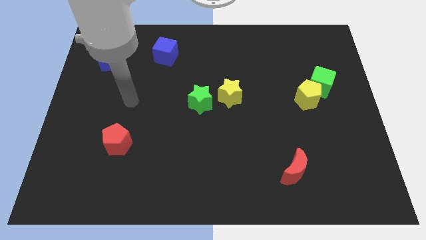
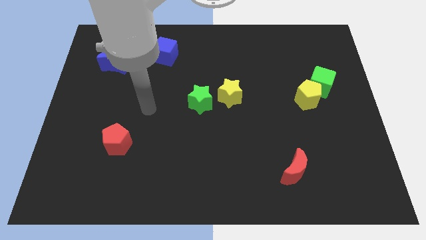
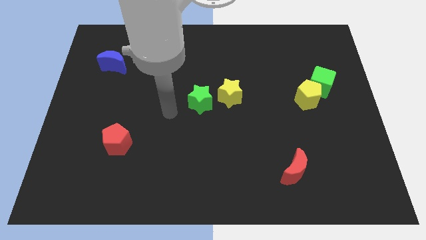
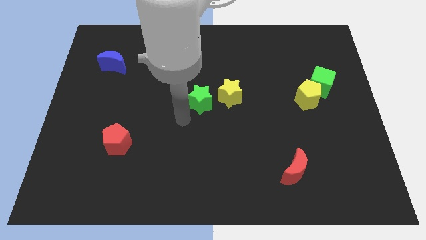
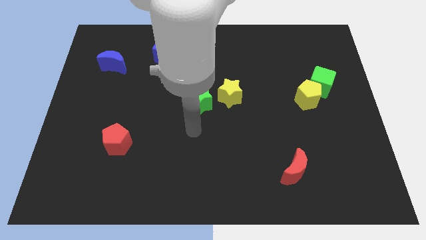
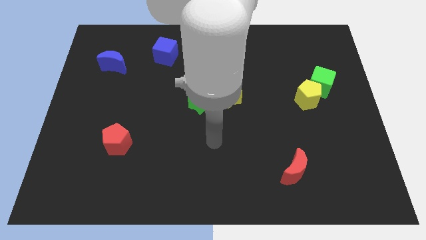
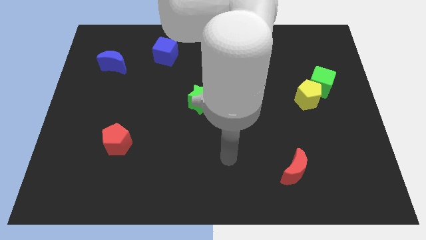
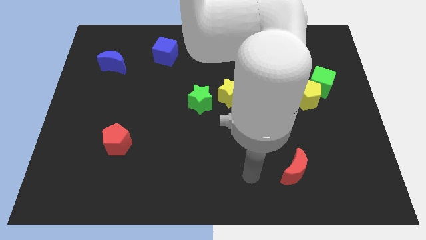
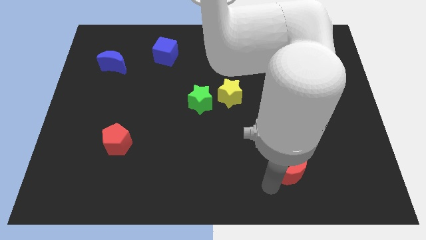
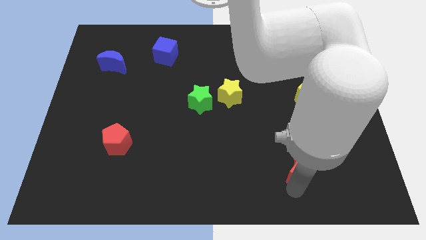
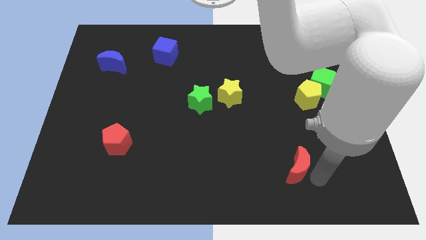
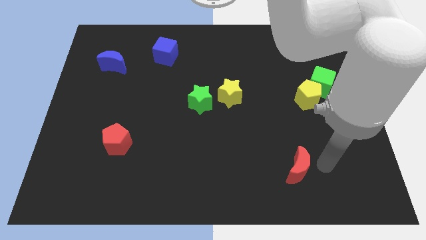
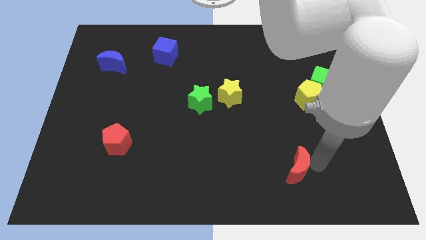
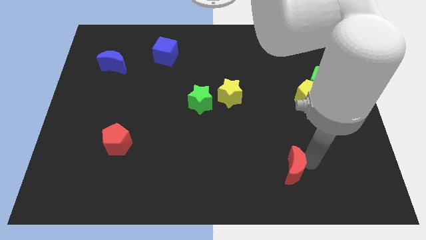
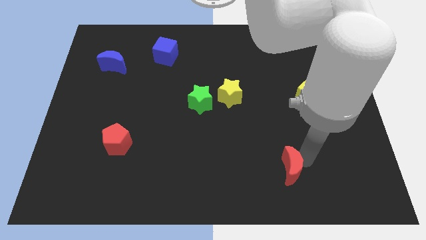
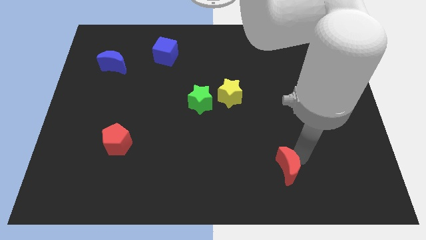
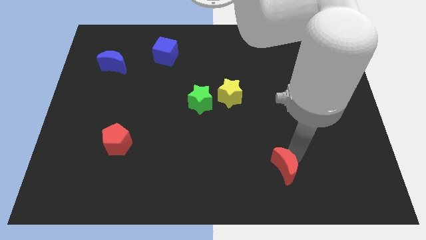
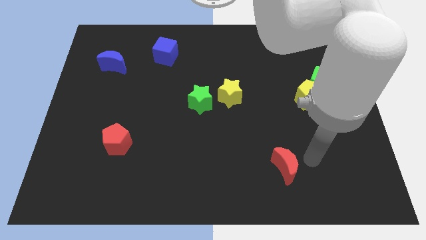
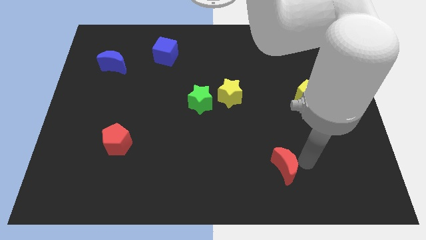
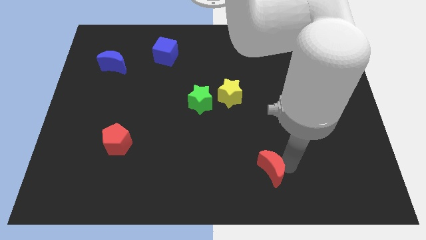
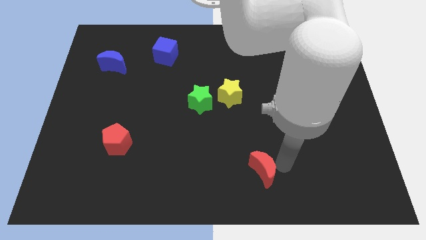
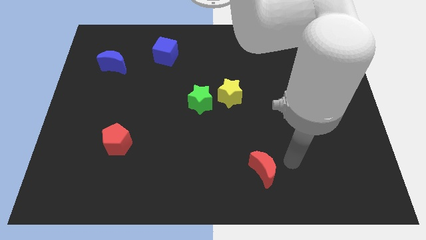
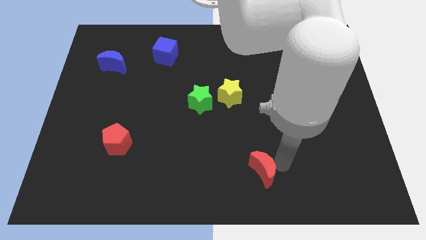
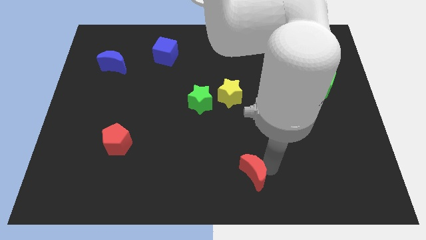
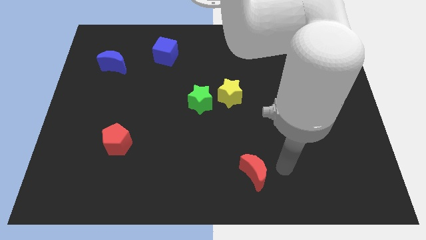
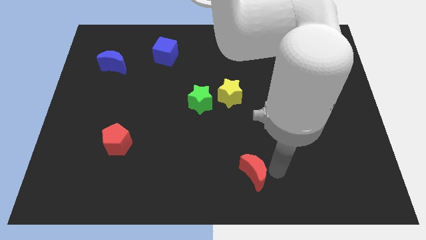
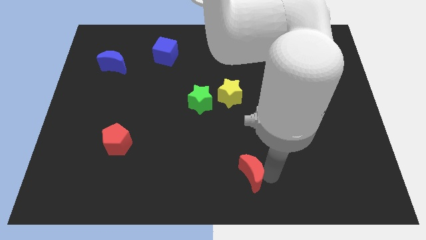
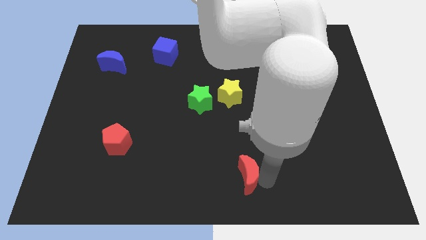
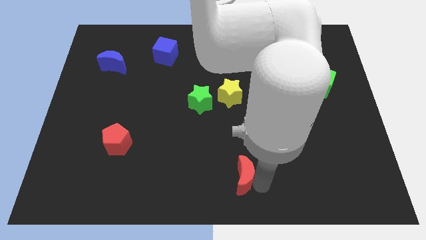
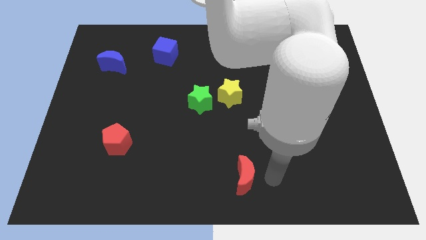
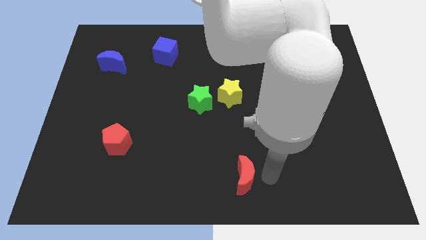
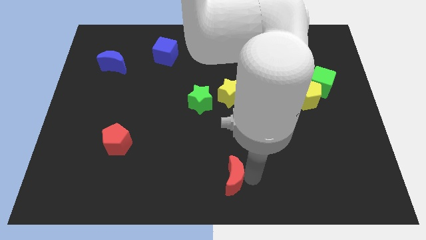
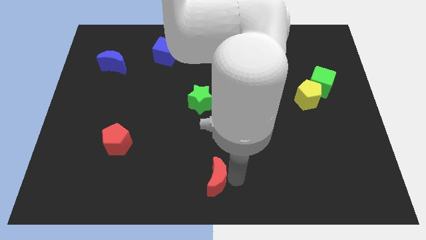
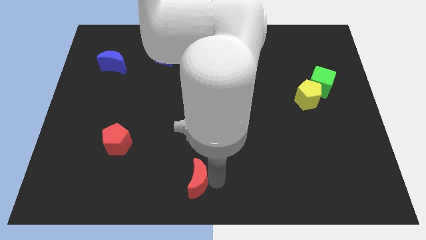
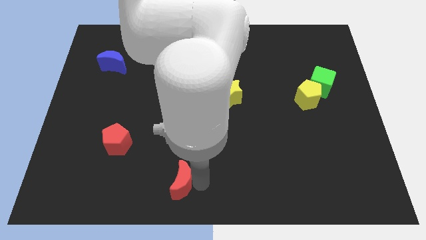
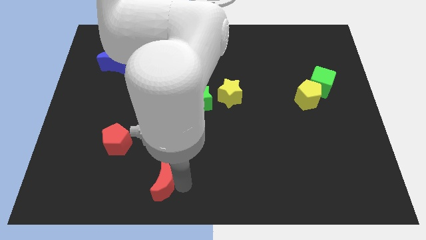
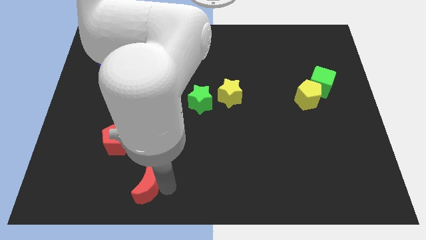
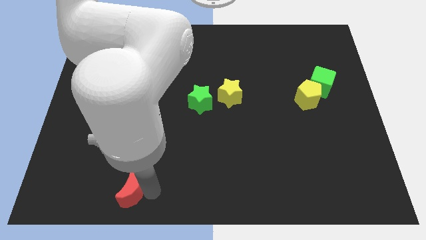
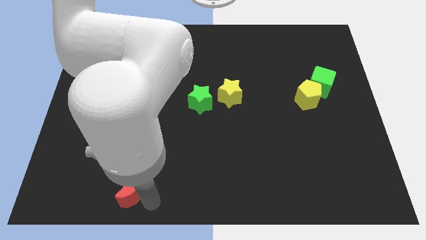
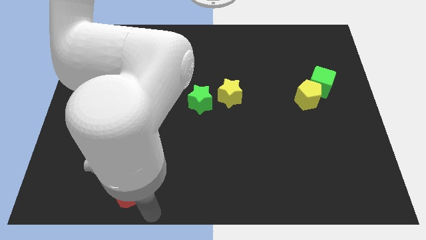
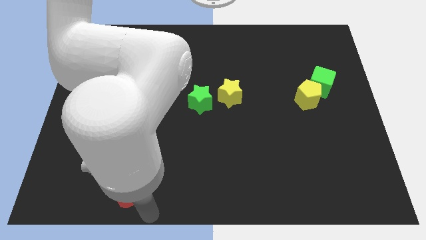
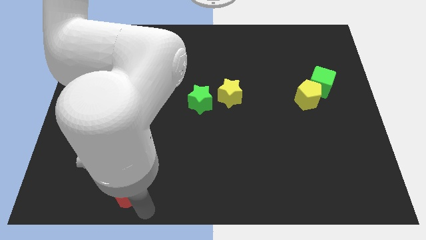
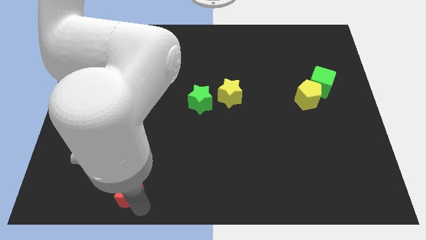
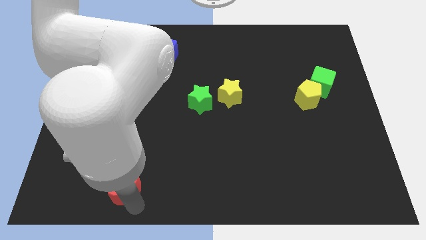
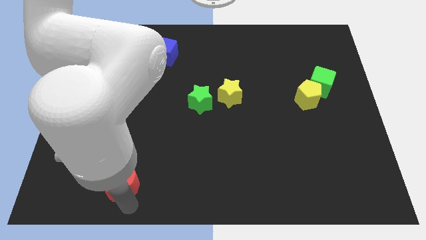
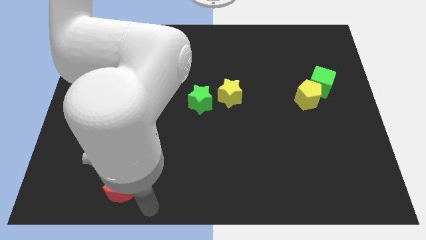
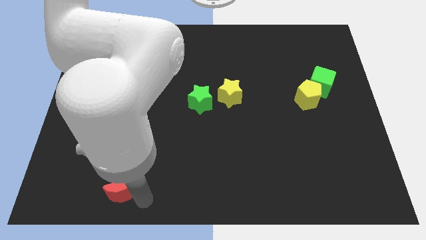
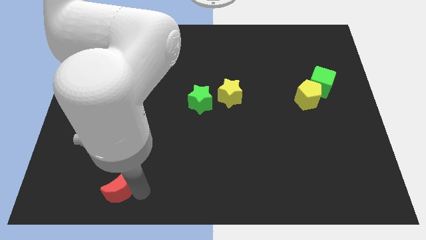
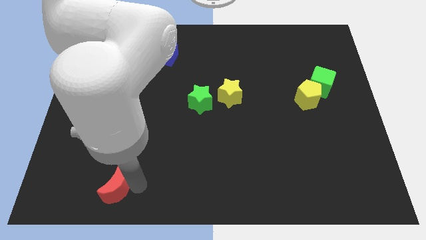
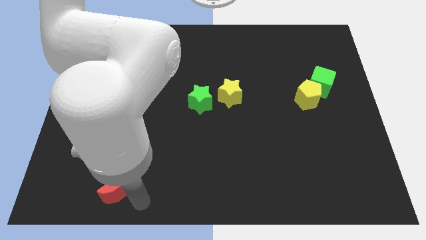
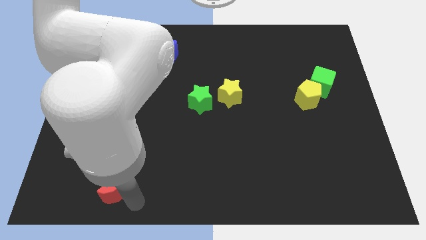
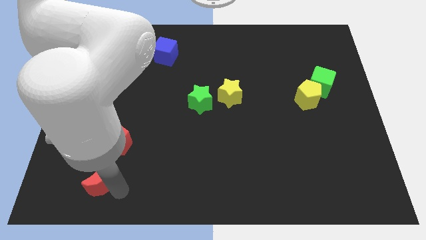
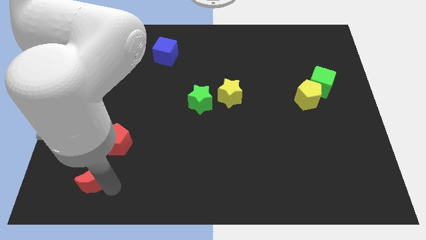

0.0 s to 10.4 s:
put the red moon to the bottom left of the red pentagon

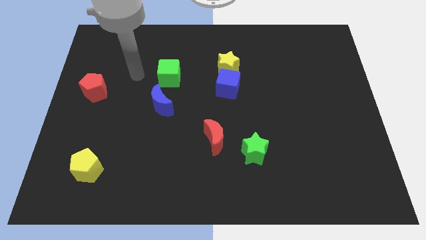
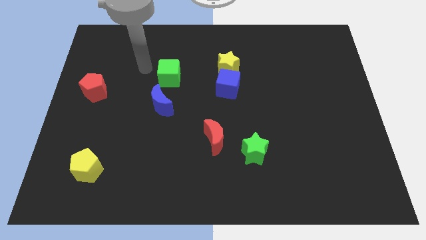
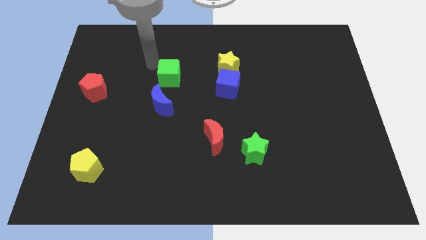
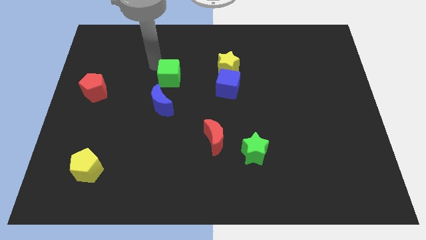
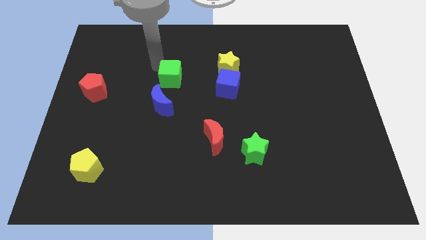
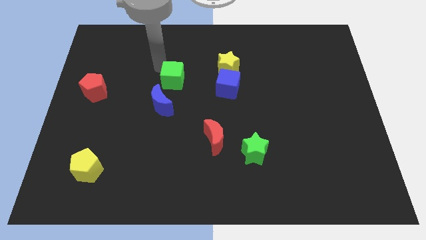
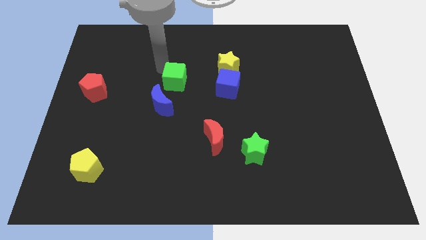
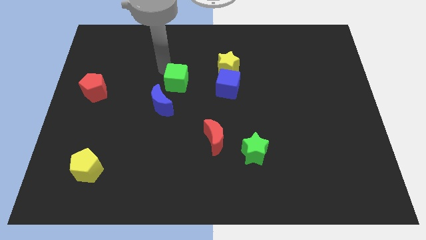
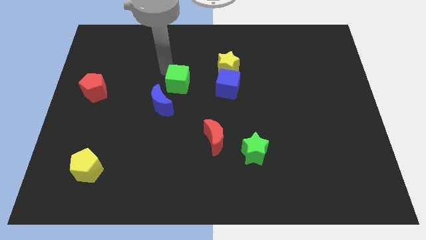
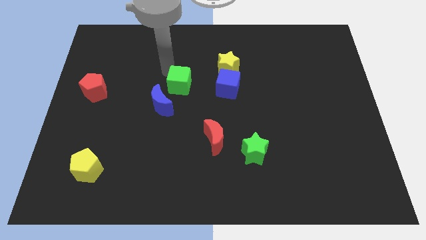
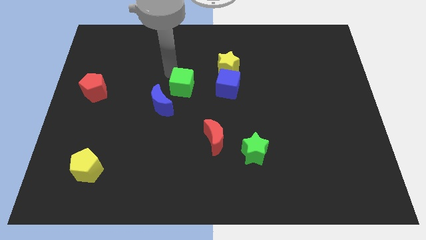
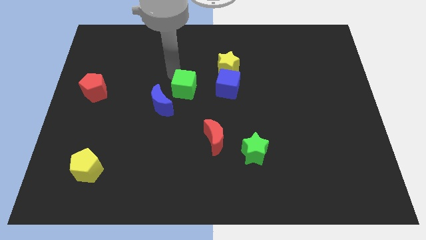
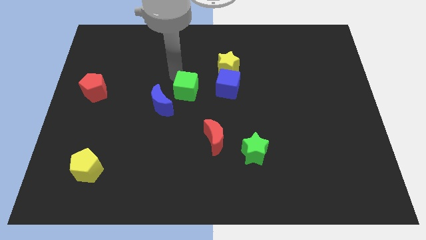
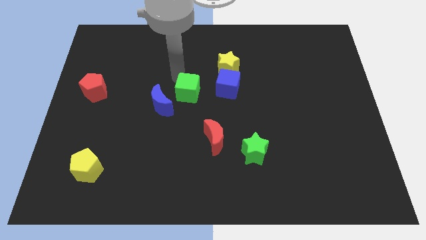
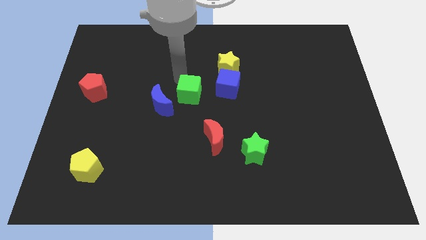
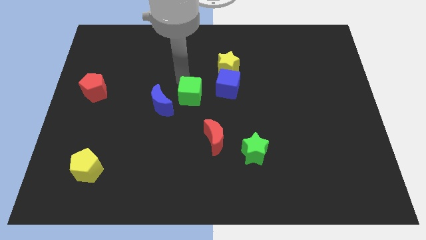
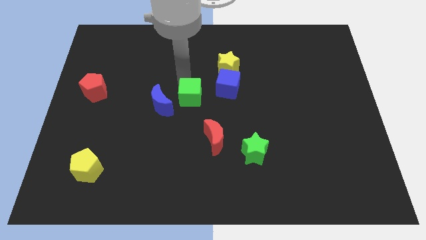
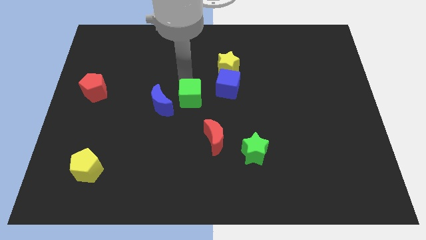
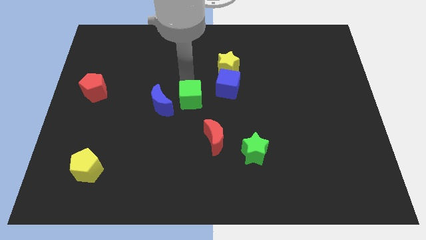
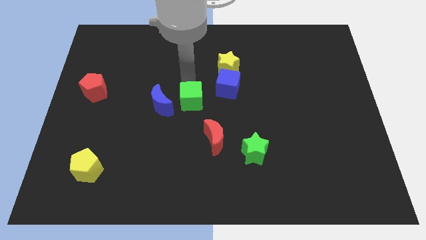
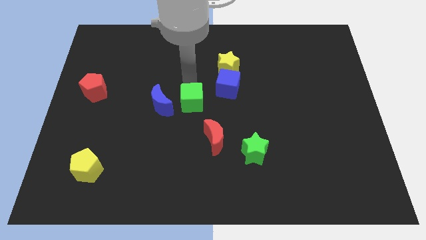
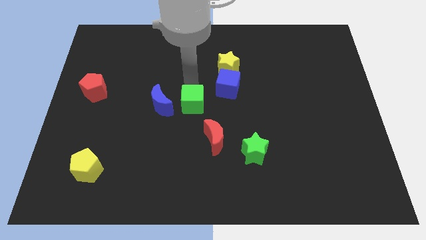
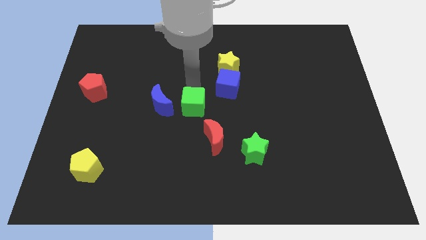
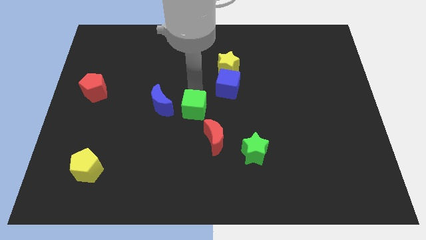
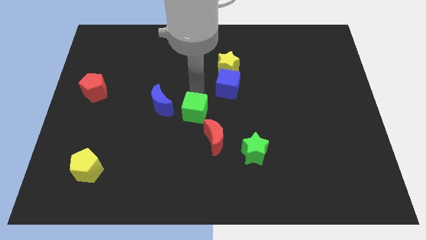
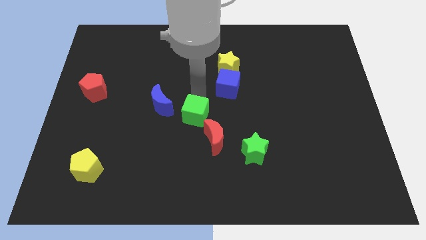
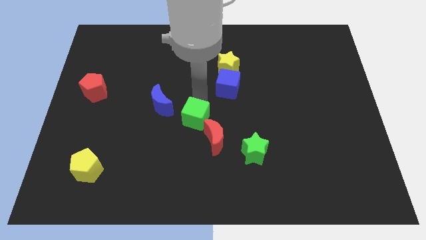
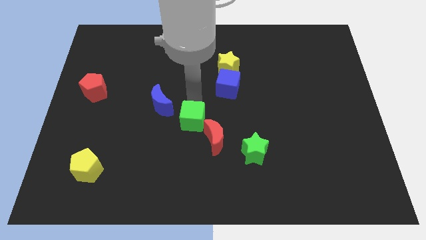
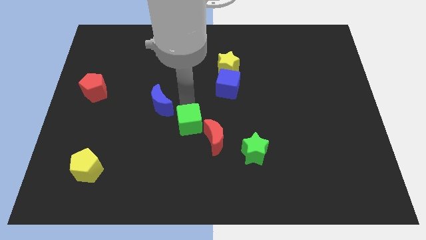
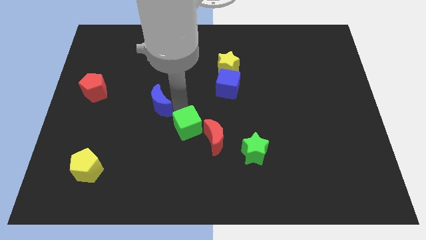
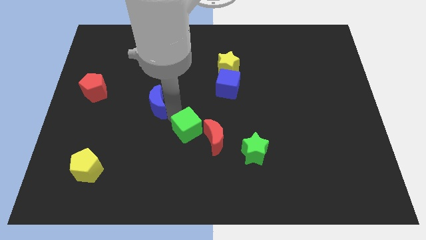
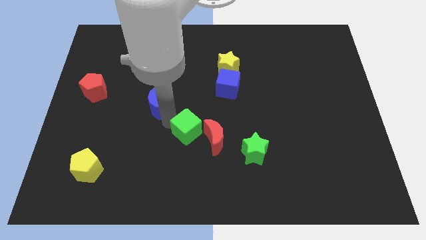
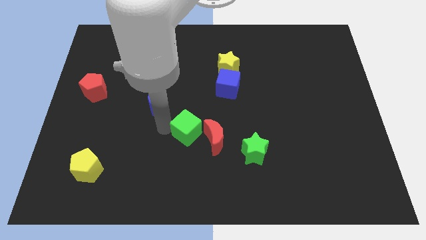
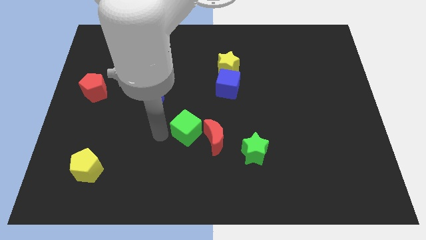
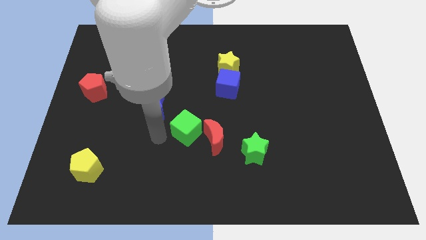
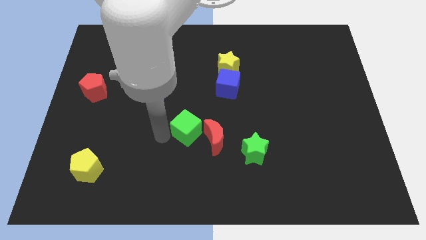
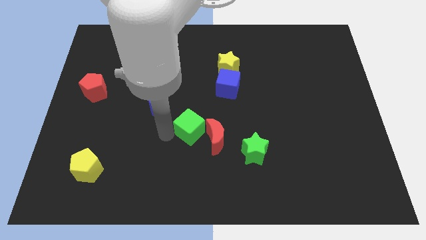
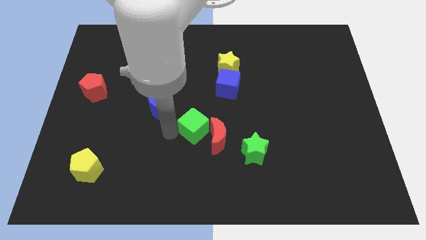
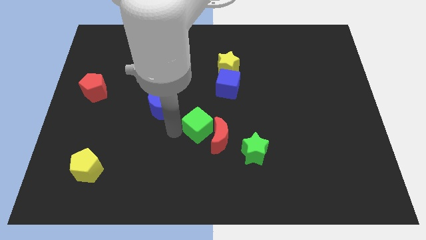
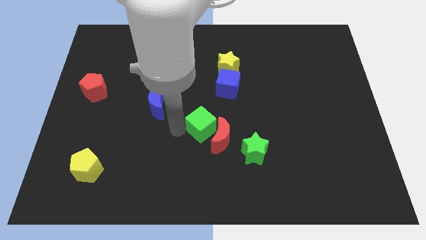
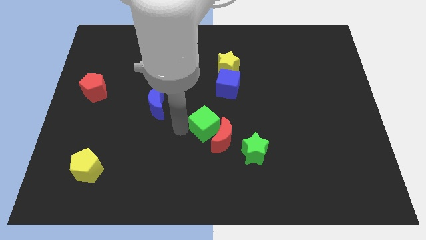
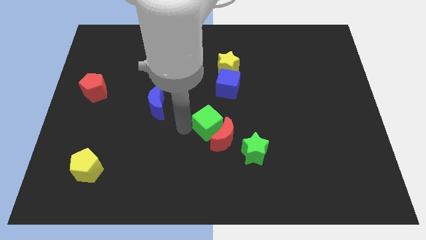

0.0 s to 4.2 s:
put the green cube to the bottom of the blue cube
